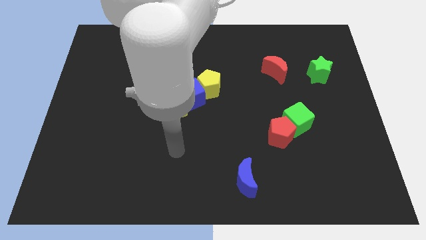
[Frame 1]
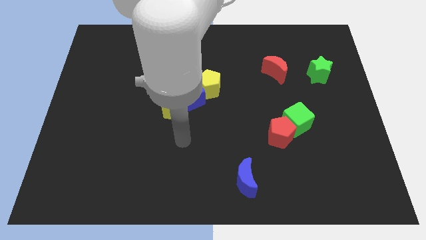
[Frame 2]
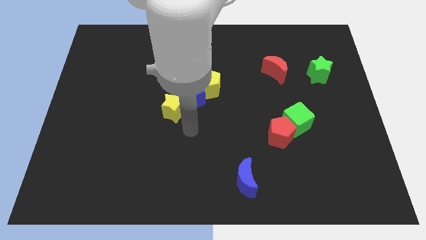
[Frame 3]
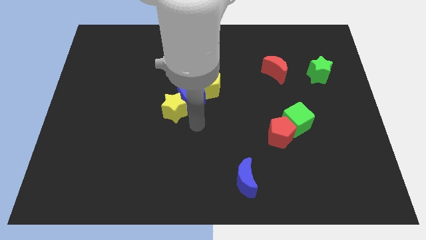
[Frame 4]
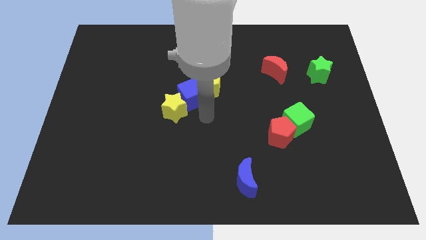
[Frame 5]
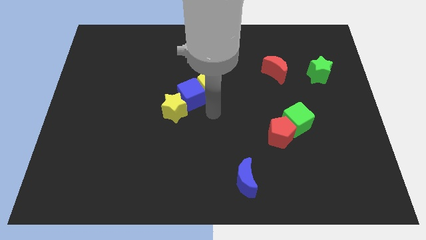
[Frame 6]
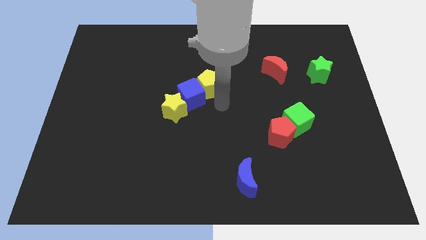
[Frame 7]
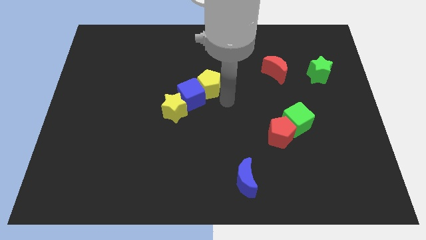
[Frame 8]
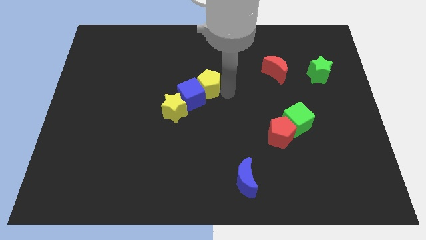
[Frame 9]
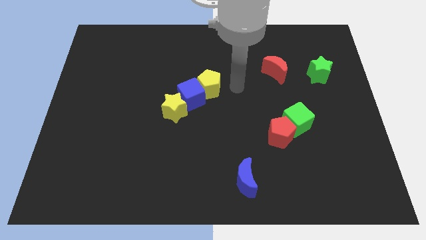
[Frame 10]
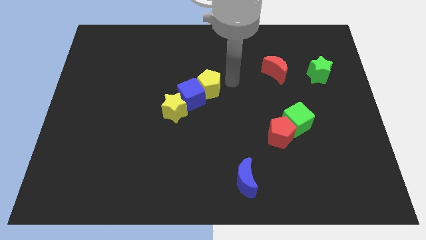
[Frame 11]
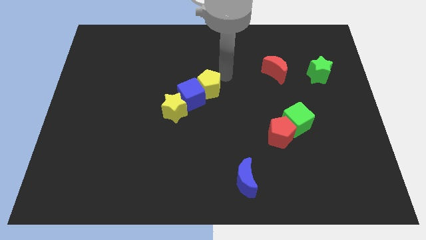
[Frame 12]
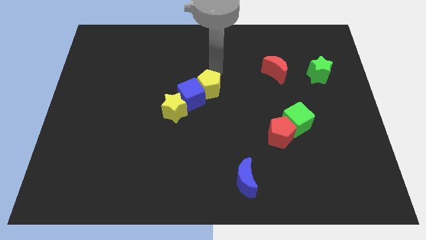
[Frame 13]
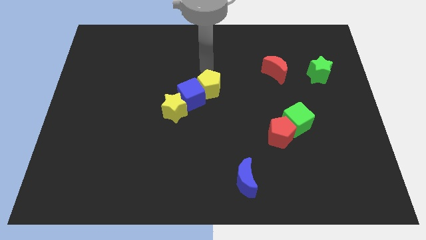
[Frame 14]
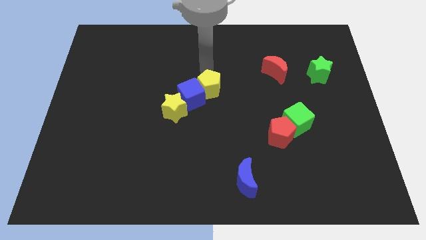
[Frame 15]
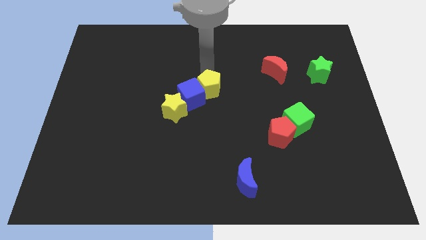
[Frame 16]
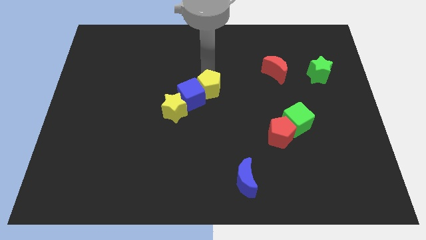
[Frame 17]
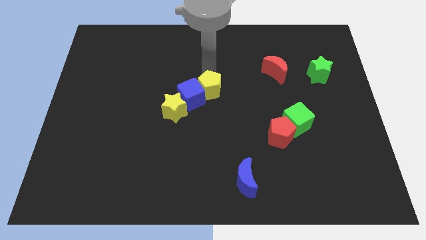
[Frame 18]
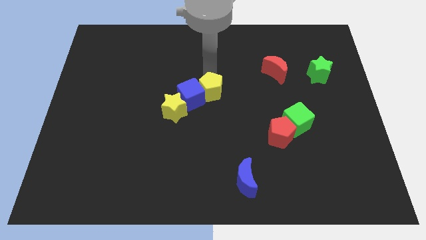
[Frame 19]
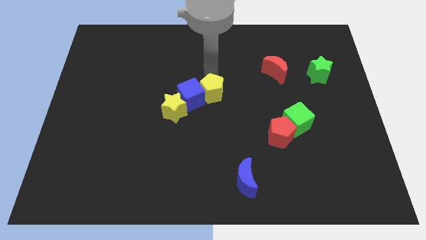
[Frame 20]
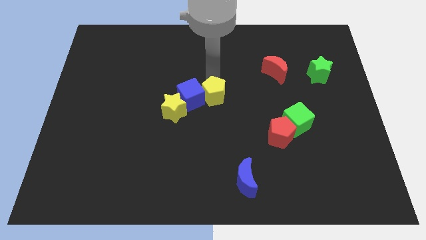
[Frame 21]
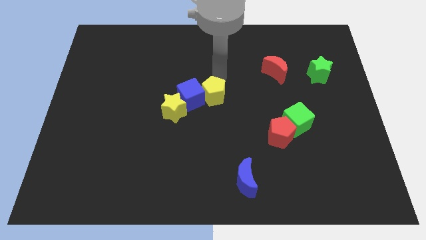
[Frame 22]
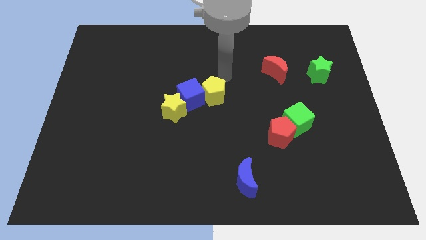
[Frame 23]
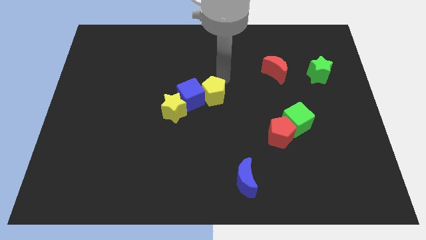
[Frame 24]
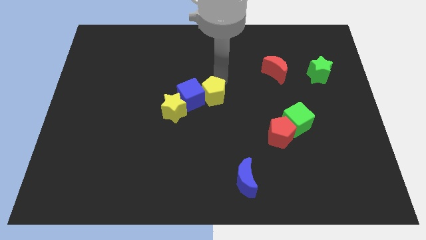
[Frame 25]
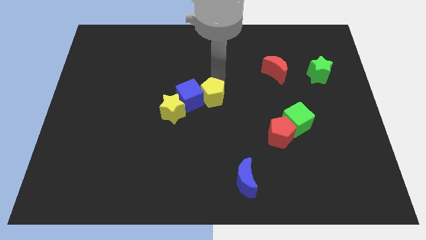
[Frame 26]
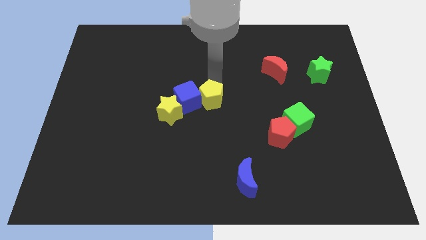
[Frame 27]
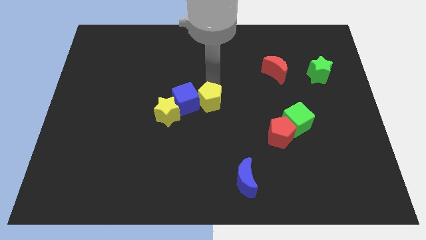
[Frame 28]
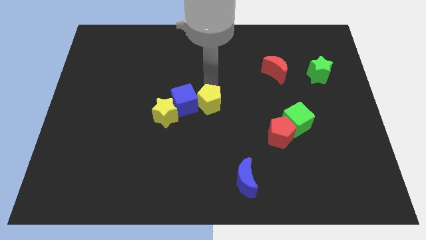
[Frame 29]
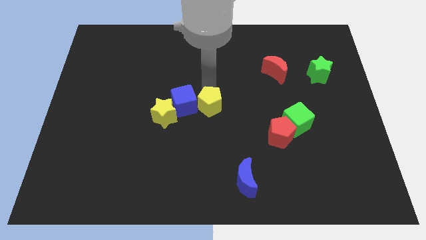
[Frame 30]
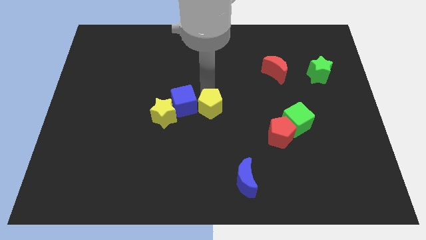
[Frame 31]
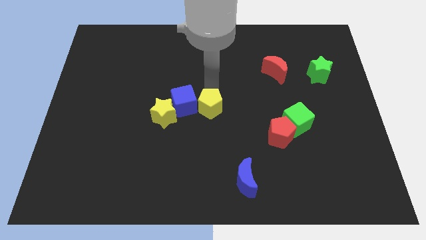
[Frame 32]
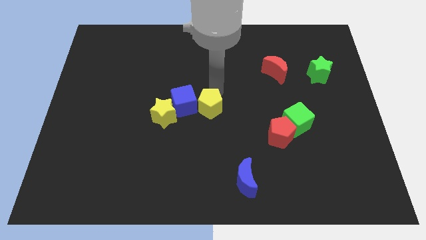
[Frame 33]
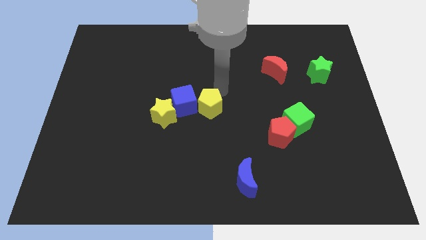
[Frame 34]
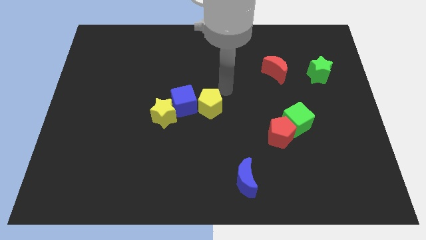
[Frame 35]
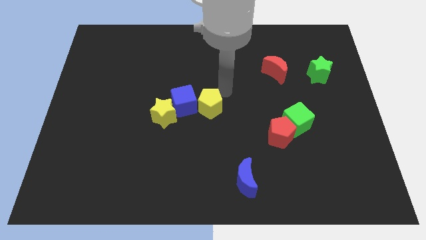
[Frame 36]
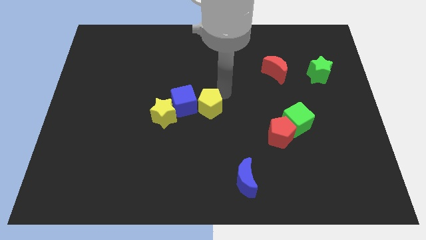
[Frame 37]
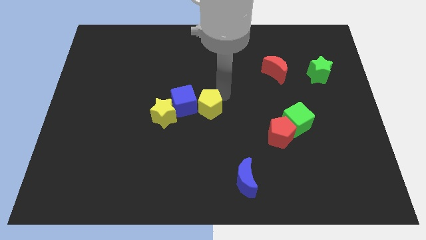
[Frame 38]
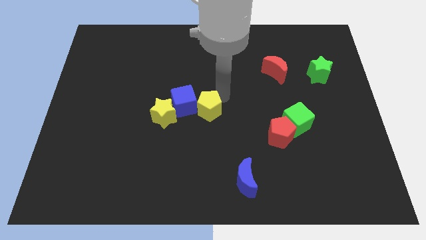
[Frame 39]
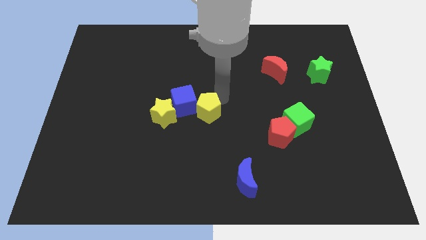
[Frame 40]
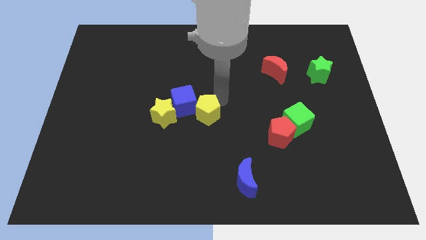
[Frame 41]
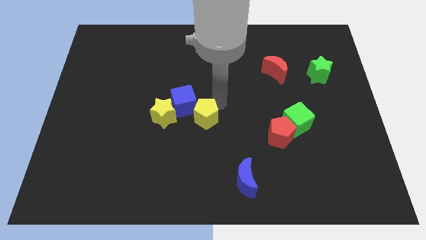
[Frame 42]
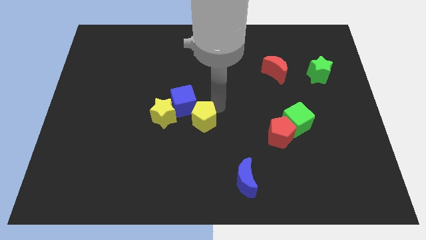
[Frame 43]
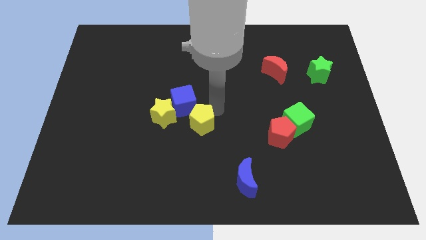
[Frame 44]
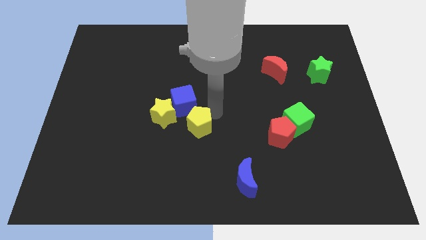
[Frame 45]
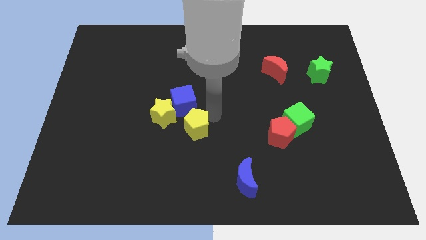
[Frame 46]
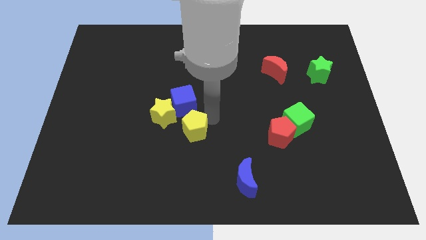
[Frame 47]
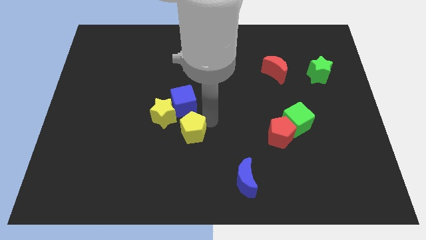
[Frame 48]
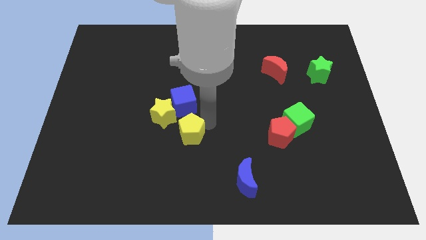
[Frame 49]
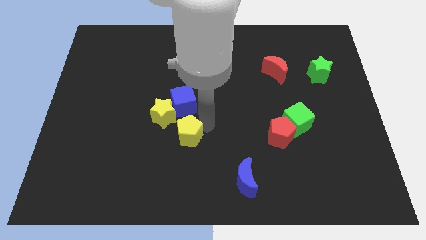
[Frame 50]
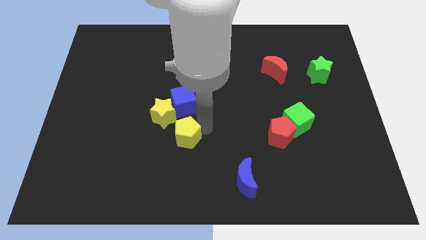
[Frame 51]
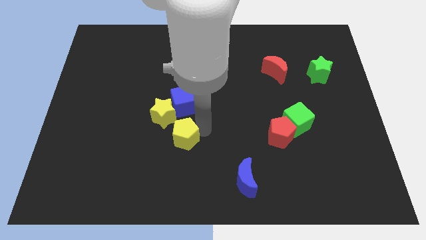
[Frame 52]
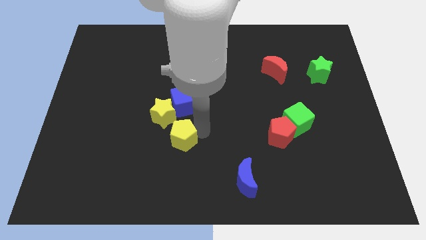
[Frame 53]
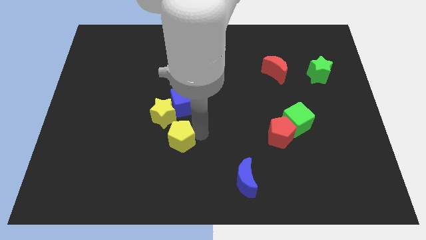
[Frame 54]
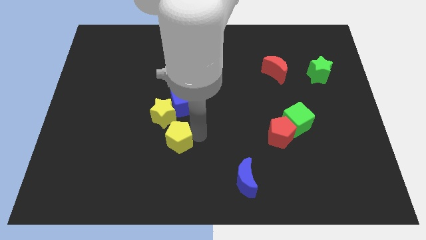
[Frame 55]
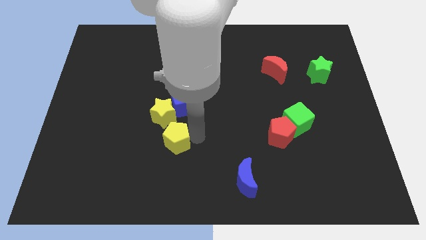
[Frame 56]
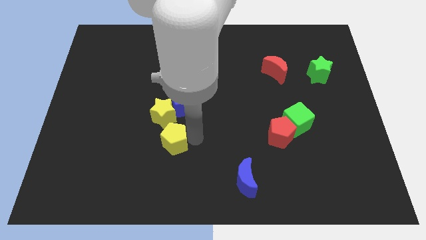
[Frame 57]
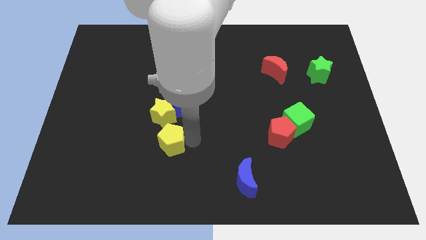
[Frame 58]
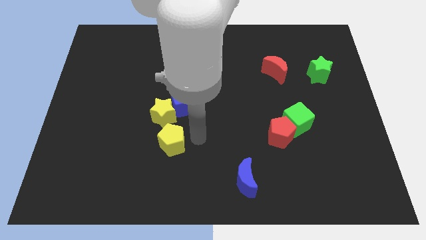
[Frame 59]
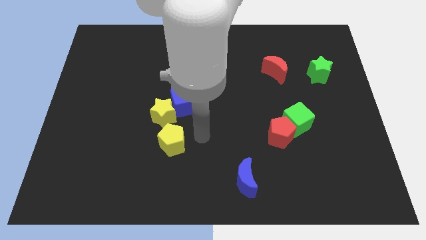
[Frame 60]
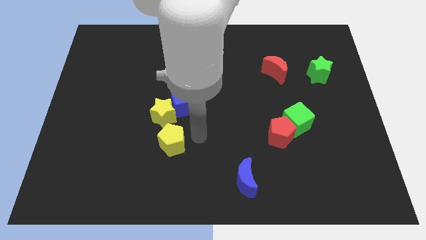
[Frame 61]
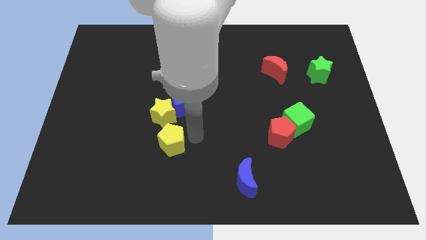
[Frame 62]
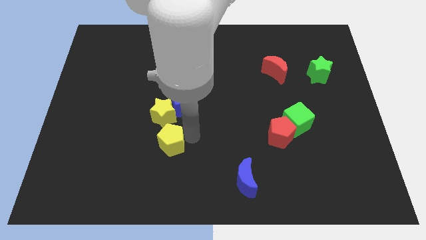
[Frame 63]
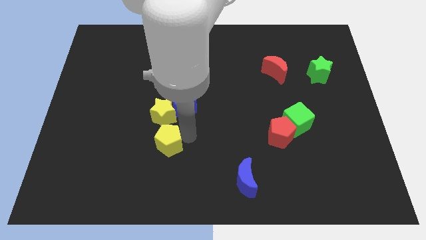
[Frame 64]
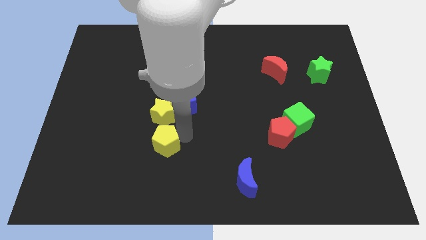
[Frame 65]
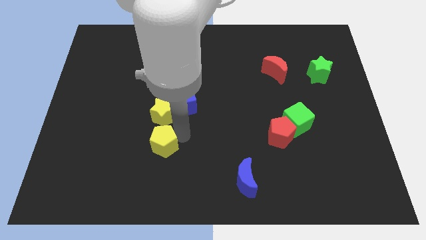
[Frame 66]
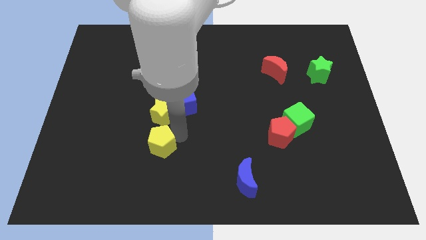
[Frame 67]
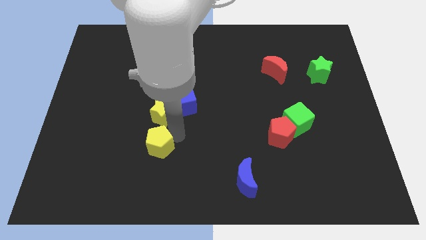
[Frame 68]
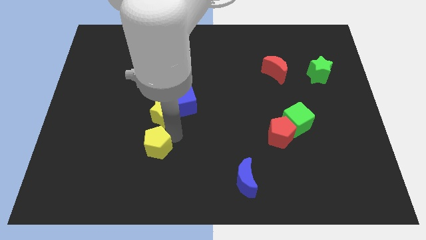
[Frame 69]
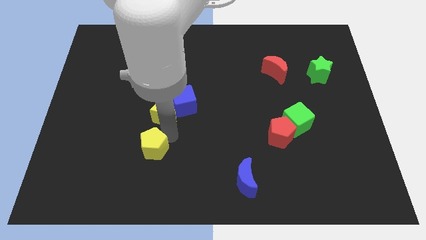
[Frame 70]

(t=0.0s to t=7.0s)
move the yellow pentagon downwards and then to the left

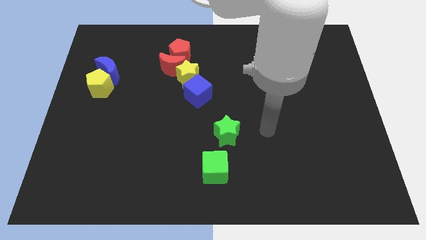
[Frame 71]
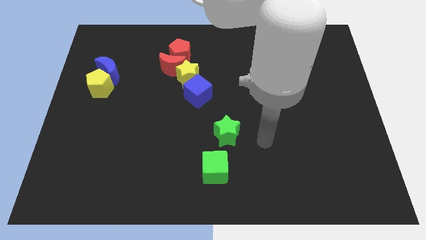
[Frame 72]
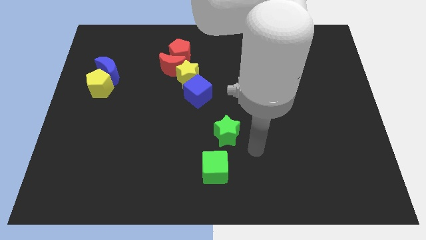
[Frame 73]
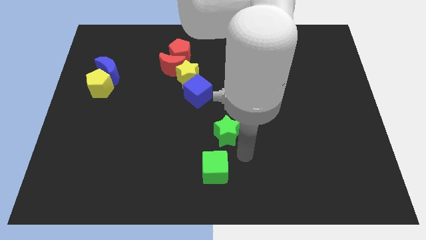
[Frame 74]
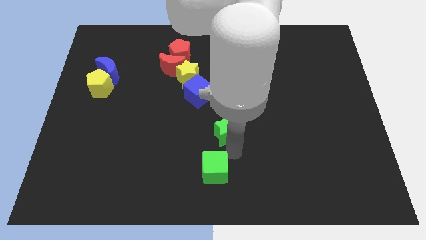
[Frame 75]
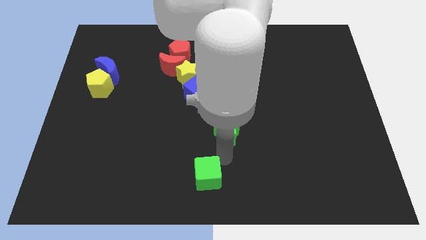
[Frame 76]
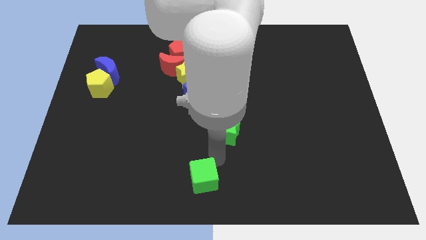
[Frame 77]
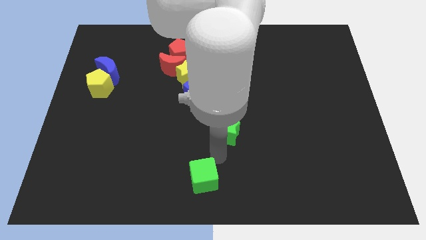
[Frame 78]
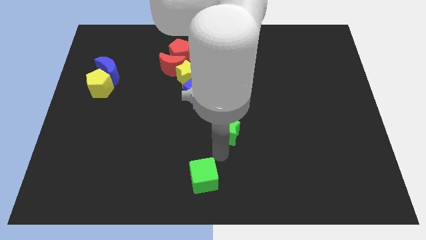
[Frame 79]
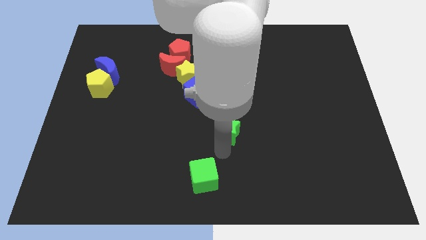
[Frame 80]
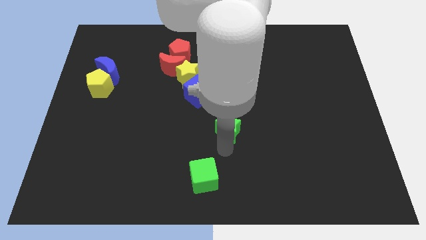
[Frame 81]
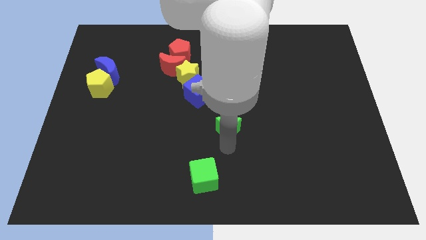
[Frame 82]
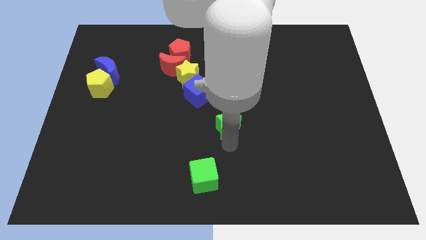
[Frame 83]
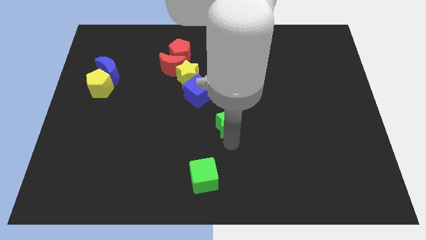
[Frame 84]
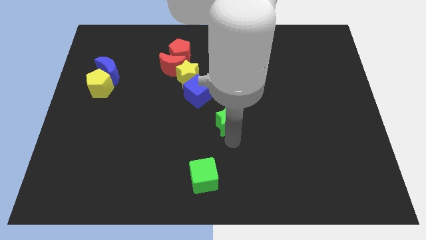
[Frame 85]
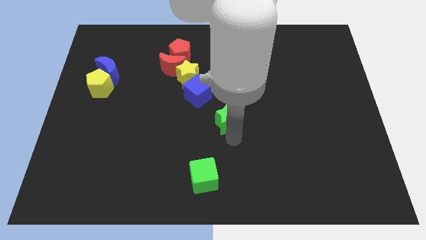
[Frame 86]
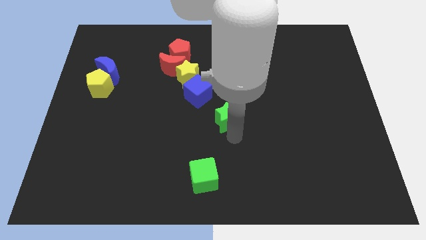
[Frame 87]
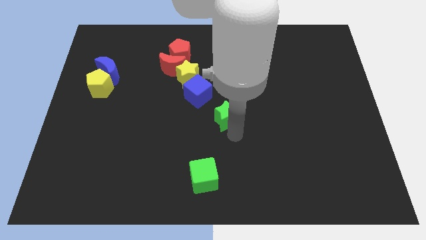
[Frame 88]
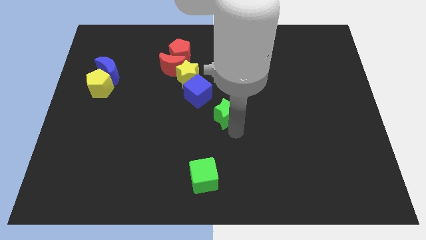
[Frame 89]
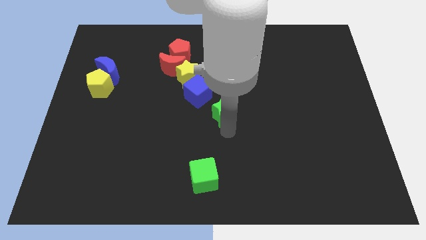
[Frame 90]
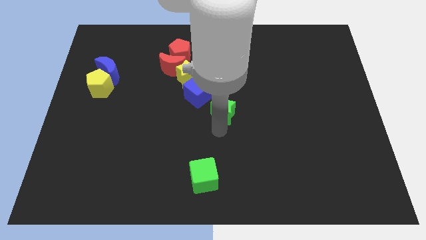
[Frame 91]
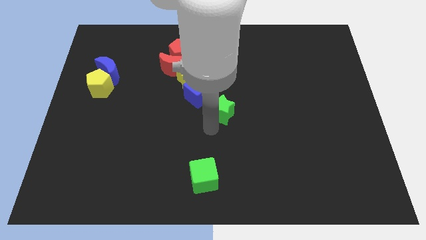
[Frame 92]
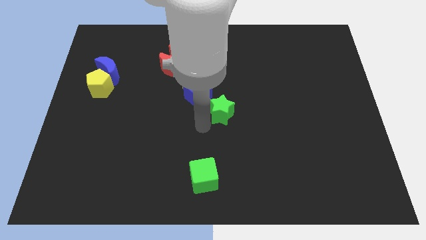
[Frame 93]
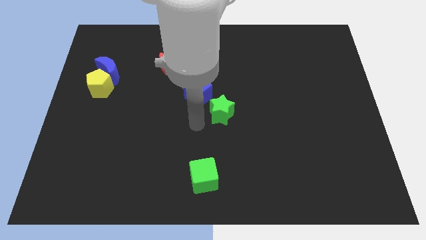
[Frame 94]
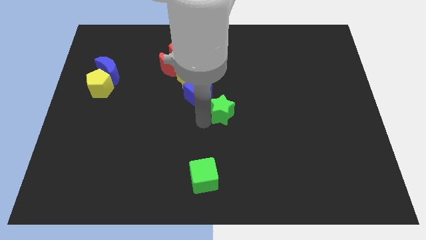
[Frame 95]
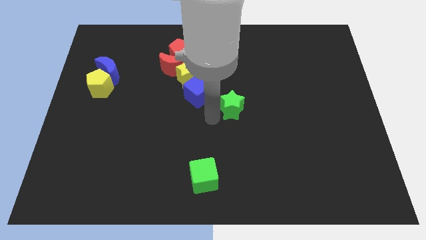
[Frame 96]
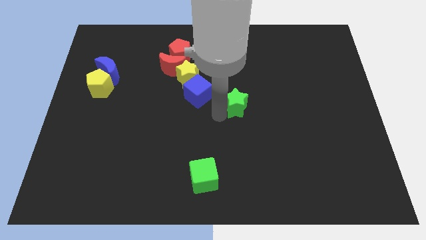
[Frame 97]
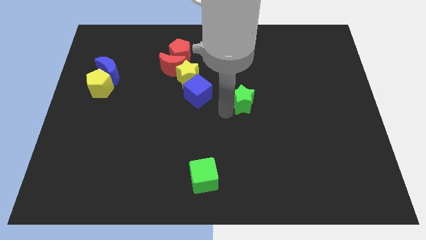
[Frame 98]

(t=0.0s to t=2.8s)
slightly push the green star upwards and then to the right
